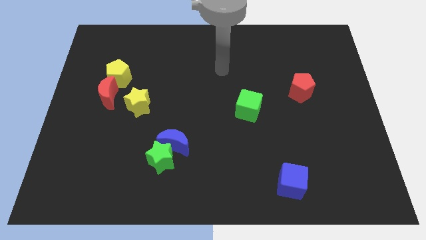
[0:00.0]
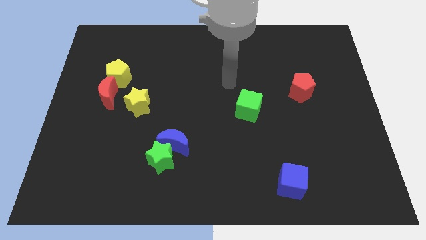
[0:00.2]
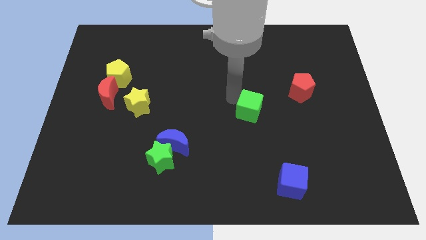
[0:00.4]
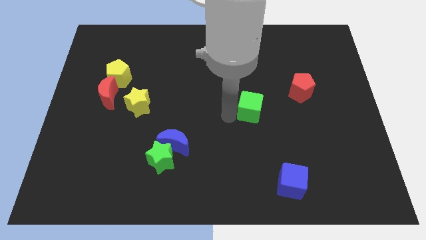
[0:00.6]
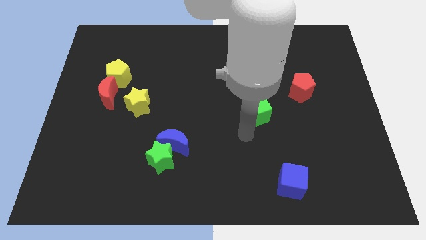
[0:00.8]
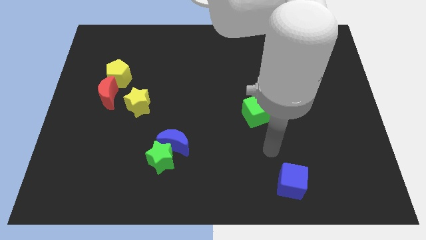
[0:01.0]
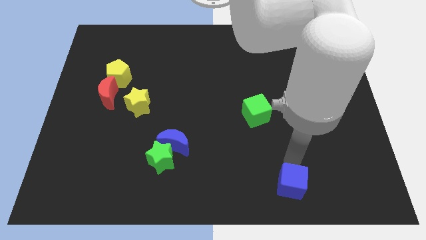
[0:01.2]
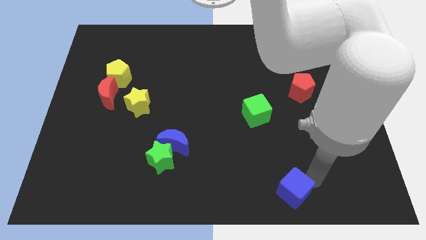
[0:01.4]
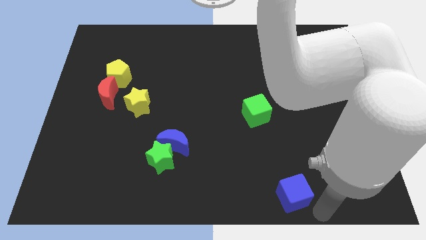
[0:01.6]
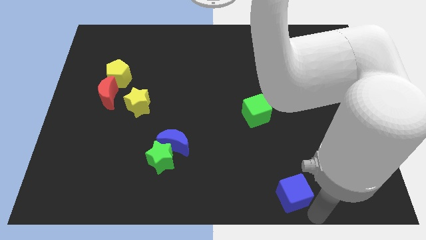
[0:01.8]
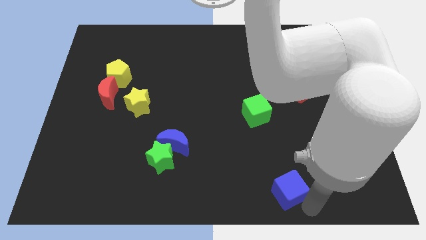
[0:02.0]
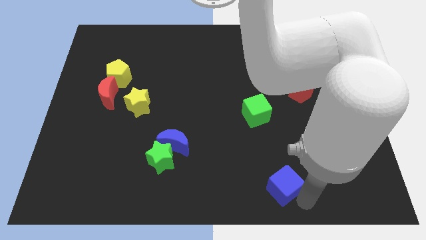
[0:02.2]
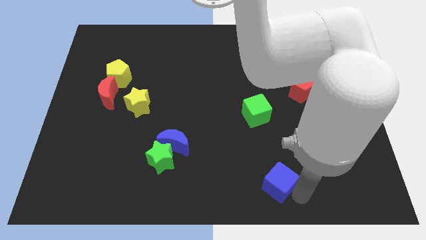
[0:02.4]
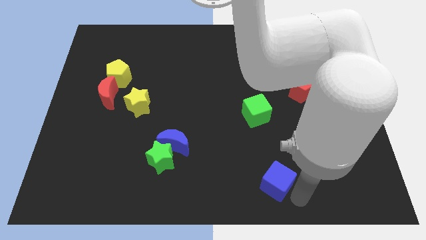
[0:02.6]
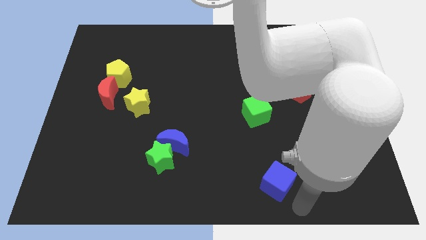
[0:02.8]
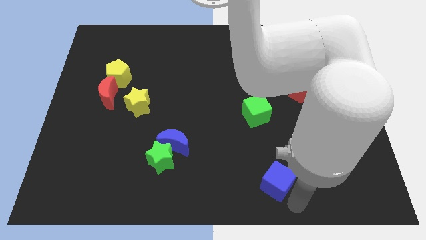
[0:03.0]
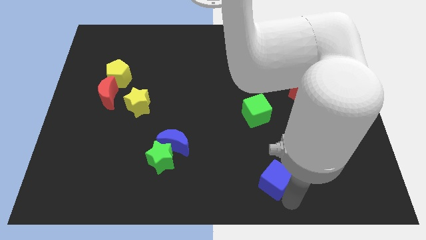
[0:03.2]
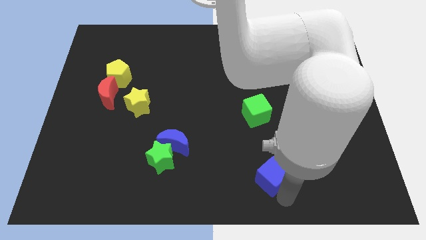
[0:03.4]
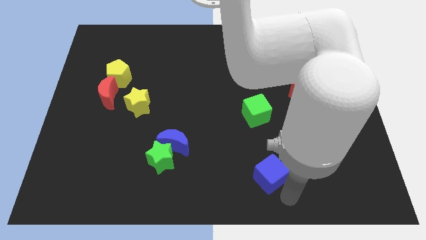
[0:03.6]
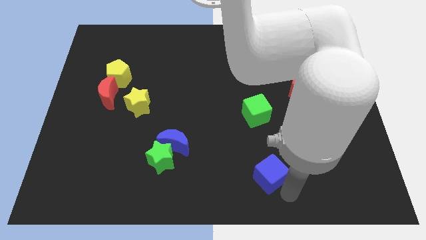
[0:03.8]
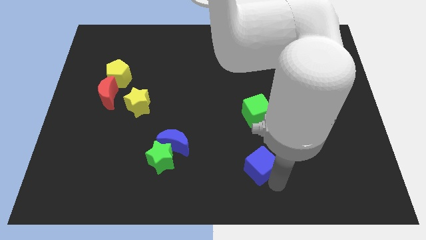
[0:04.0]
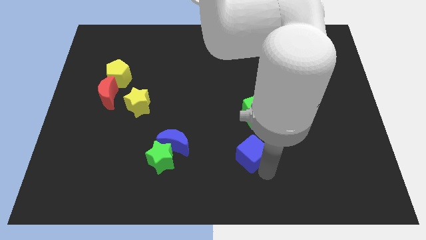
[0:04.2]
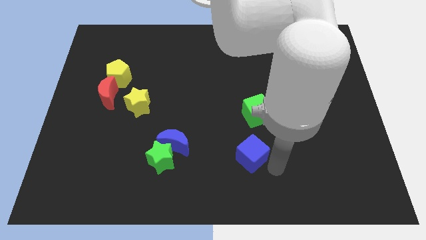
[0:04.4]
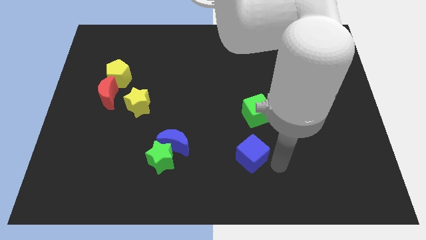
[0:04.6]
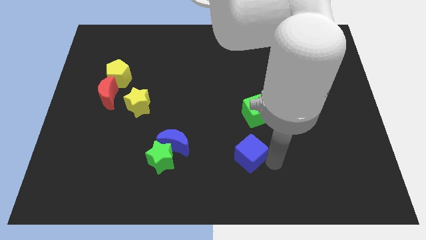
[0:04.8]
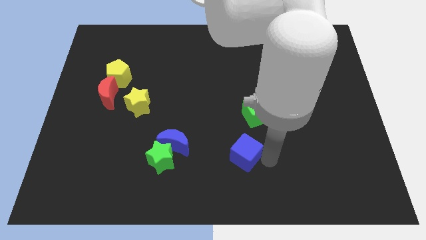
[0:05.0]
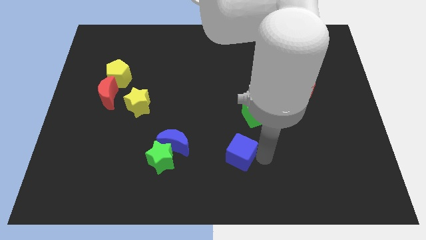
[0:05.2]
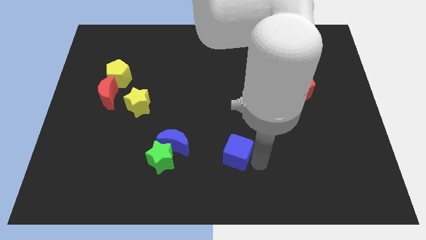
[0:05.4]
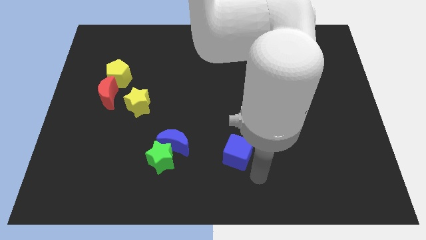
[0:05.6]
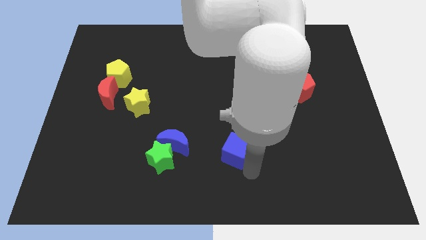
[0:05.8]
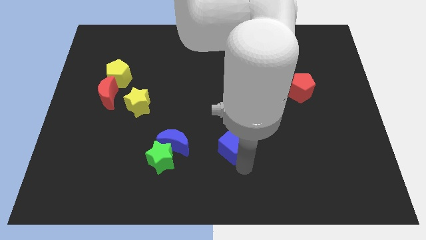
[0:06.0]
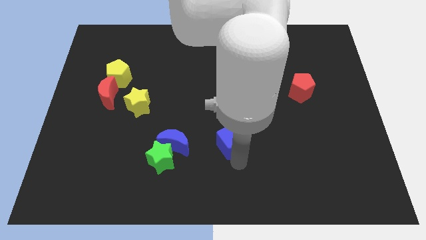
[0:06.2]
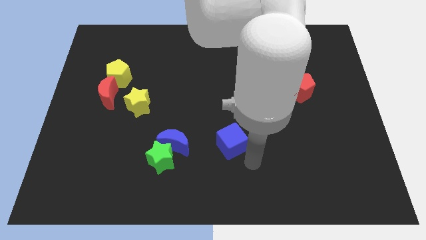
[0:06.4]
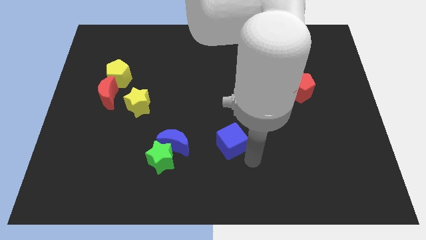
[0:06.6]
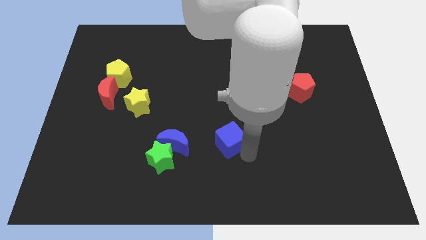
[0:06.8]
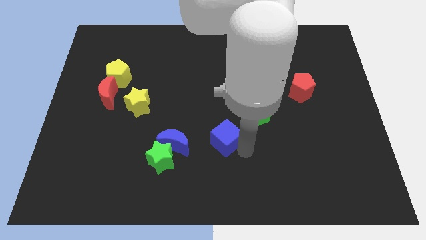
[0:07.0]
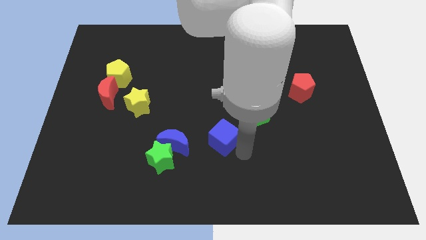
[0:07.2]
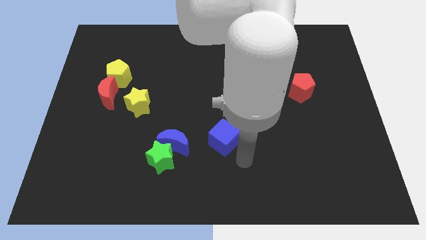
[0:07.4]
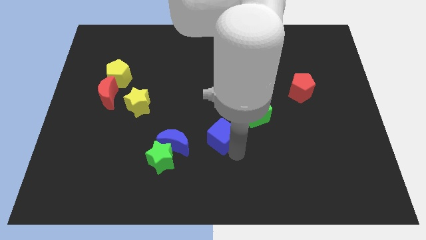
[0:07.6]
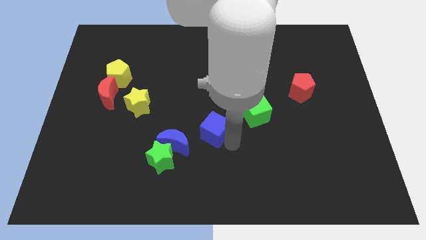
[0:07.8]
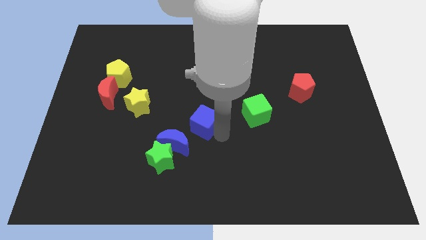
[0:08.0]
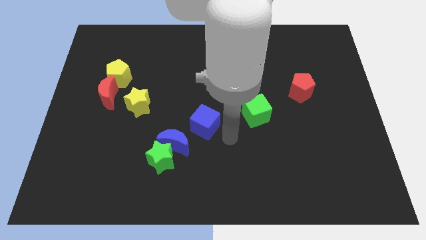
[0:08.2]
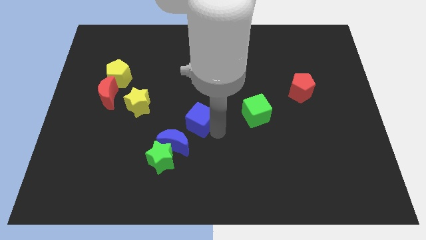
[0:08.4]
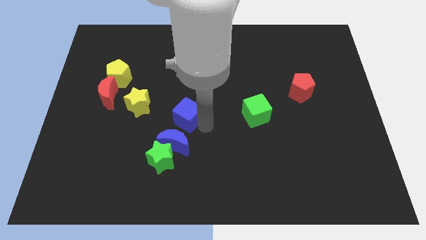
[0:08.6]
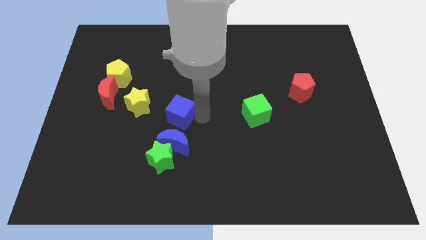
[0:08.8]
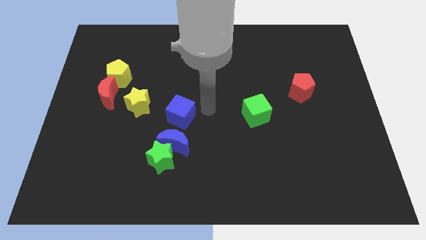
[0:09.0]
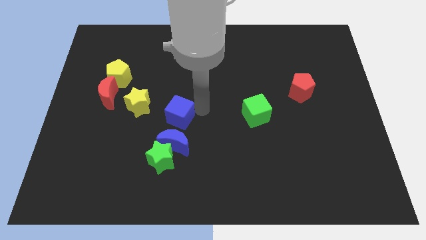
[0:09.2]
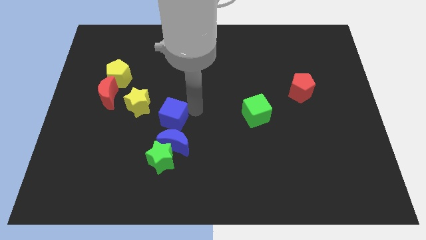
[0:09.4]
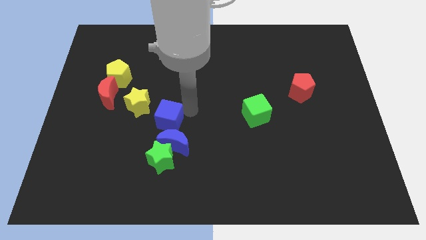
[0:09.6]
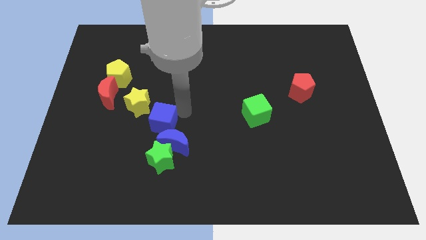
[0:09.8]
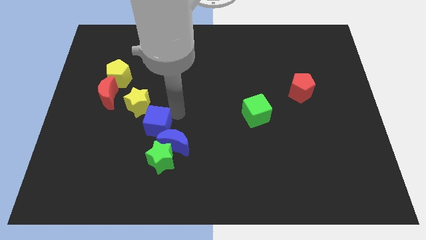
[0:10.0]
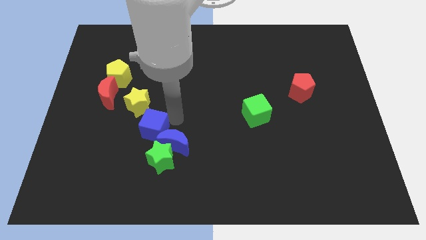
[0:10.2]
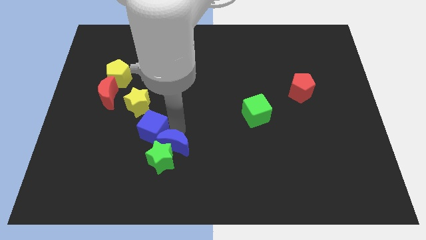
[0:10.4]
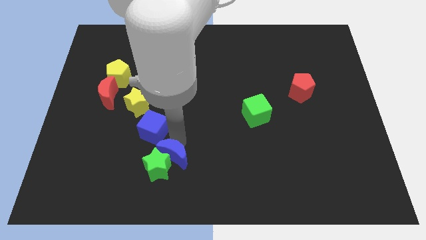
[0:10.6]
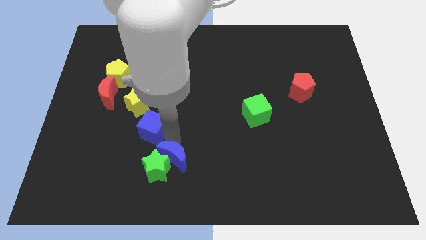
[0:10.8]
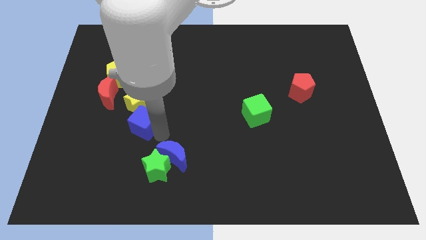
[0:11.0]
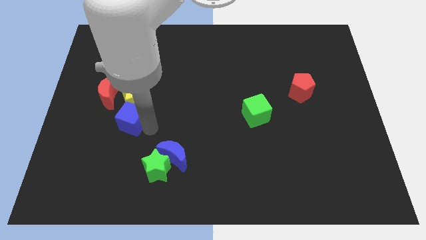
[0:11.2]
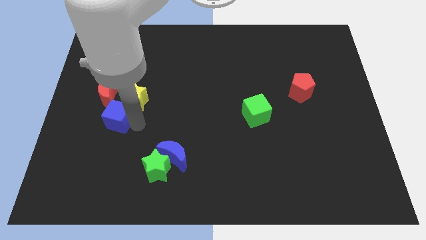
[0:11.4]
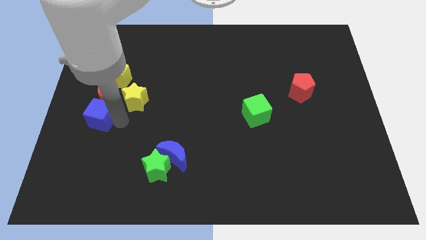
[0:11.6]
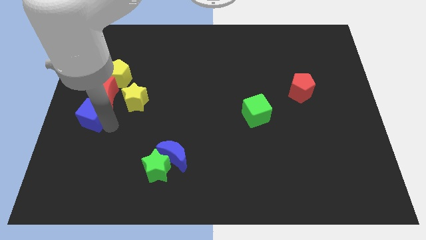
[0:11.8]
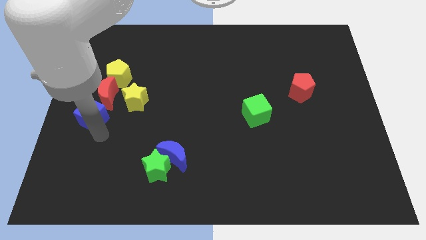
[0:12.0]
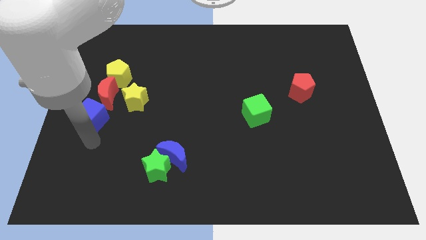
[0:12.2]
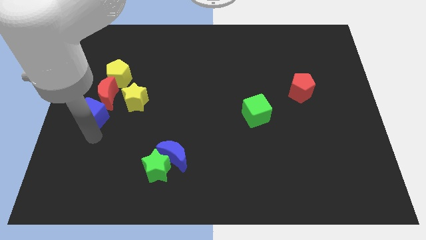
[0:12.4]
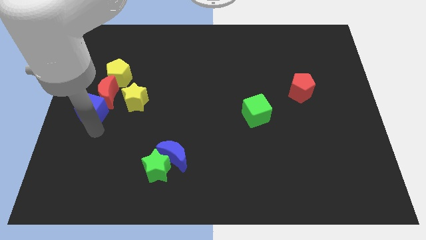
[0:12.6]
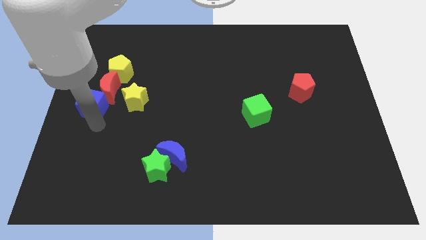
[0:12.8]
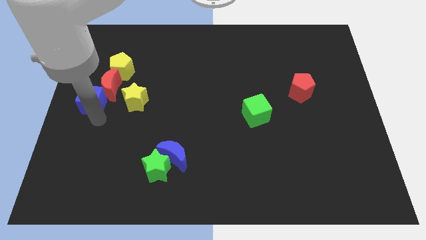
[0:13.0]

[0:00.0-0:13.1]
put the blue cube diagonally down and to the left of the yellow pentagon
